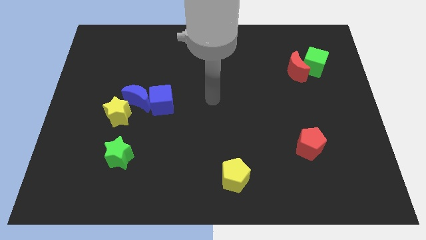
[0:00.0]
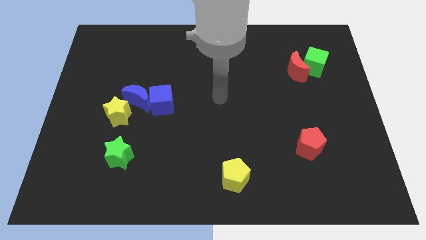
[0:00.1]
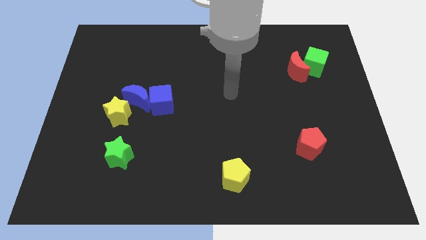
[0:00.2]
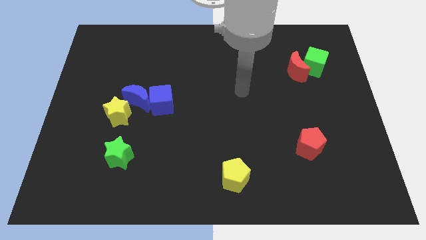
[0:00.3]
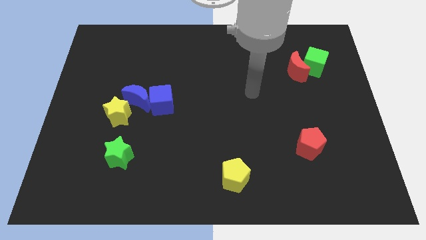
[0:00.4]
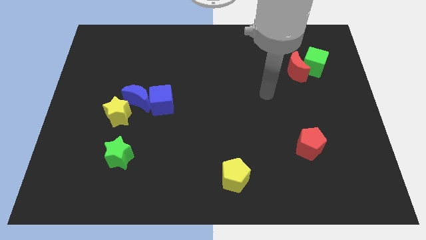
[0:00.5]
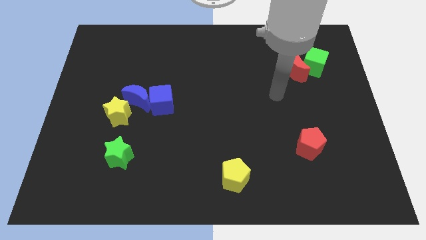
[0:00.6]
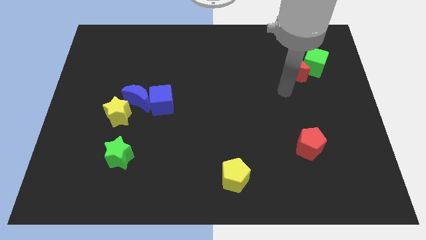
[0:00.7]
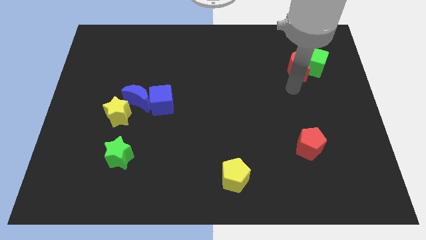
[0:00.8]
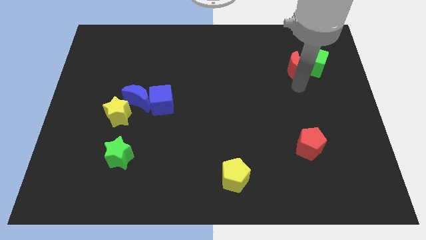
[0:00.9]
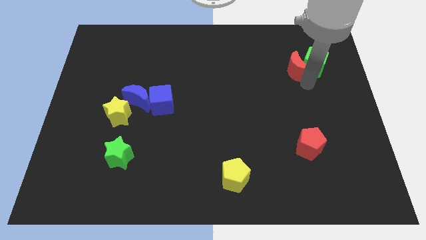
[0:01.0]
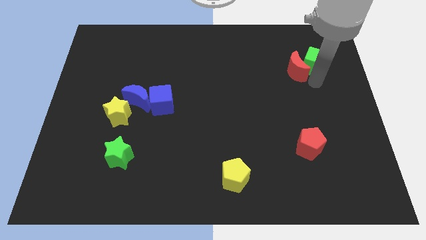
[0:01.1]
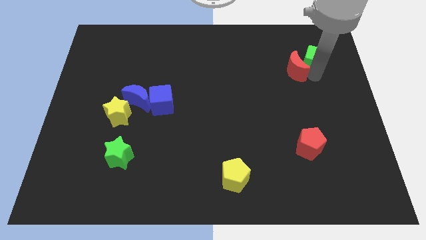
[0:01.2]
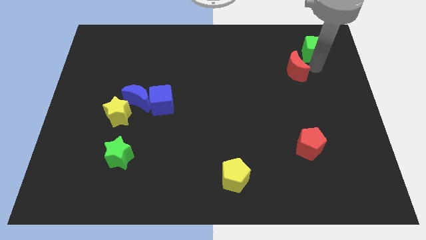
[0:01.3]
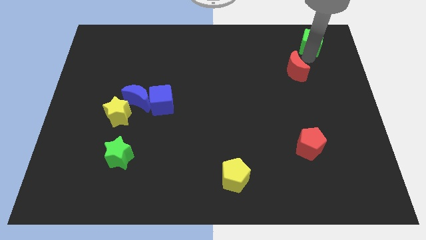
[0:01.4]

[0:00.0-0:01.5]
move the red moon away from the green cube

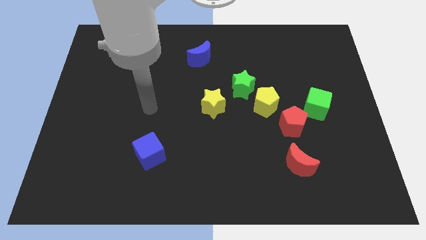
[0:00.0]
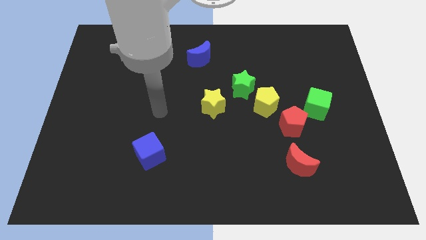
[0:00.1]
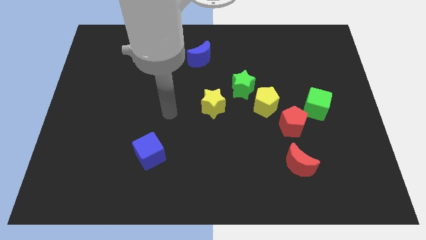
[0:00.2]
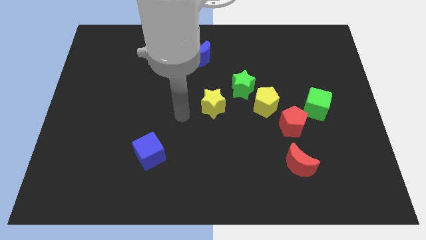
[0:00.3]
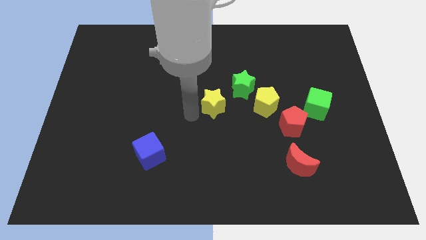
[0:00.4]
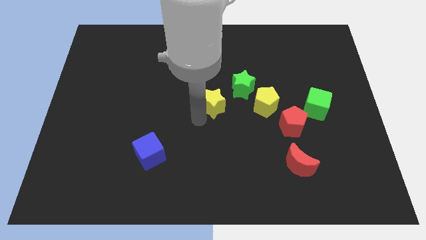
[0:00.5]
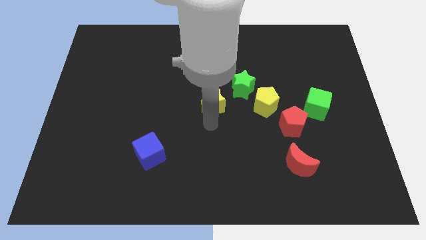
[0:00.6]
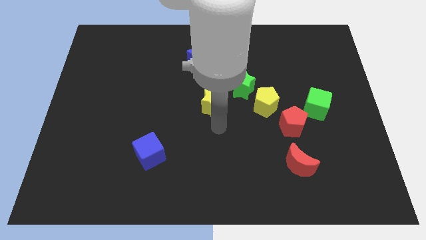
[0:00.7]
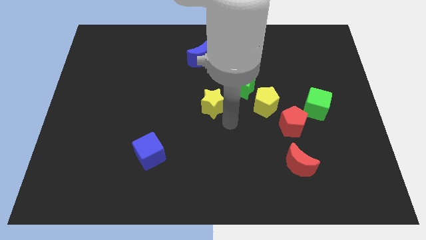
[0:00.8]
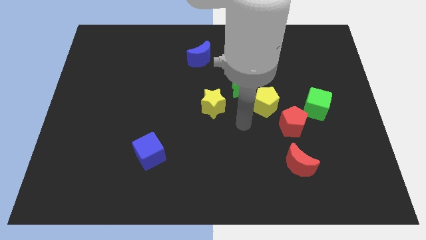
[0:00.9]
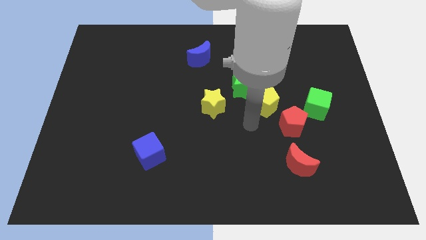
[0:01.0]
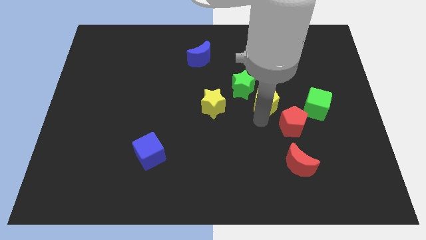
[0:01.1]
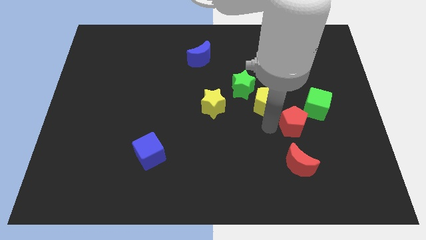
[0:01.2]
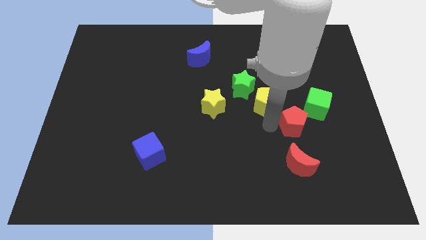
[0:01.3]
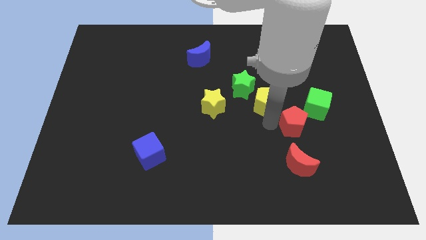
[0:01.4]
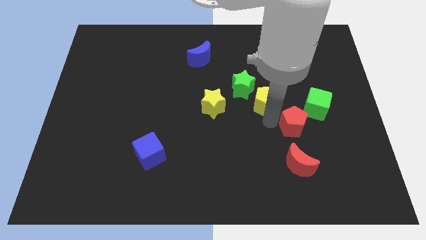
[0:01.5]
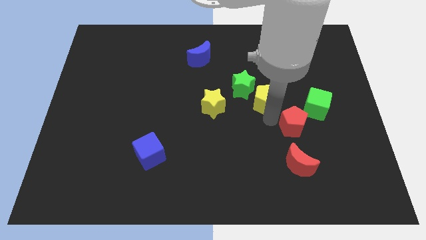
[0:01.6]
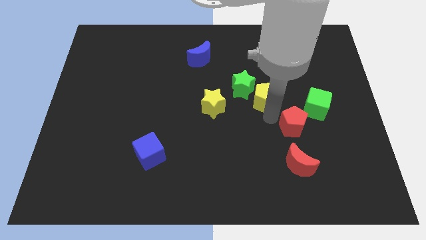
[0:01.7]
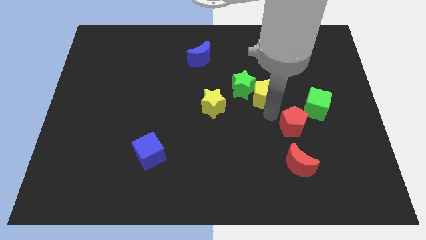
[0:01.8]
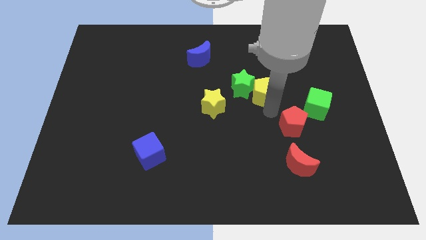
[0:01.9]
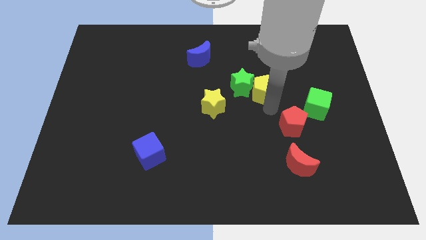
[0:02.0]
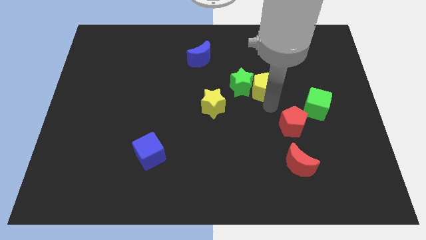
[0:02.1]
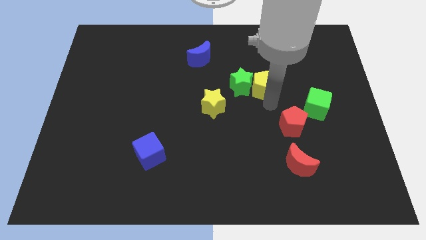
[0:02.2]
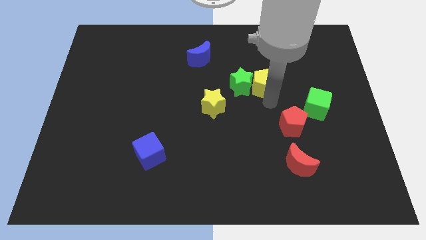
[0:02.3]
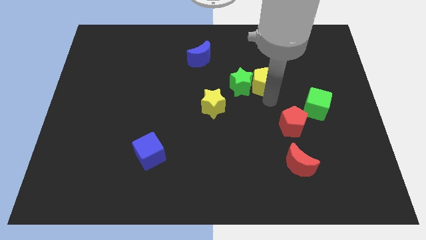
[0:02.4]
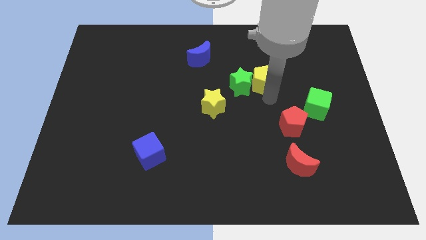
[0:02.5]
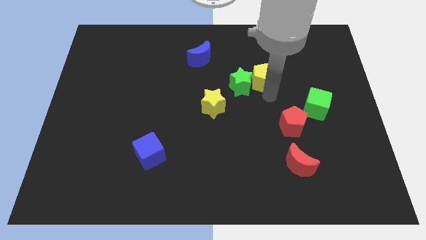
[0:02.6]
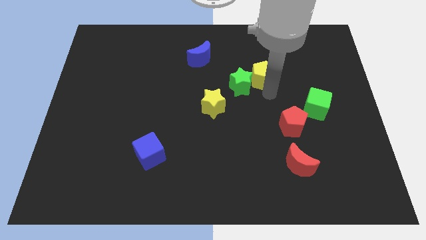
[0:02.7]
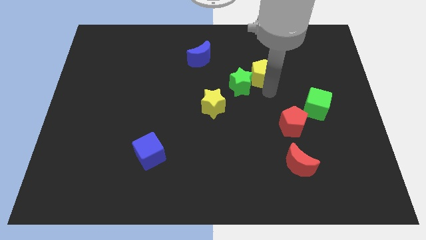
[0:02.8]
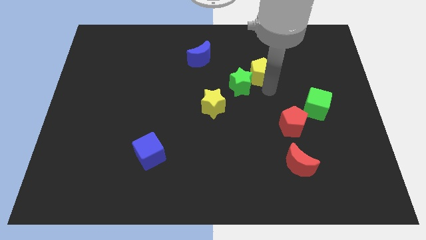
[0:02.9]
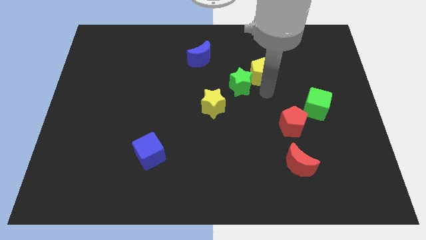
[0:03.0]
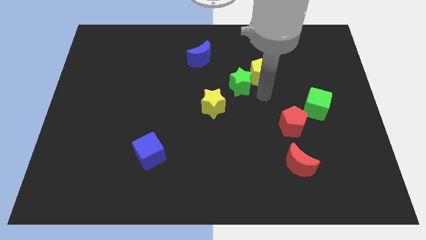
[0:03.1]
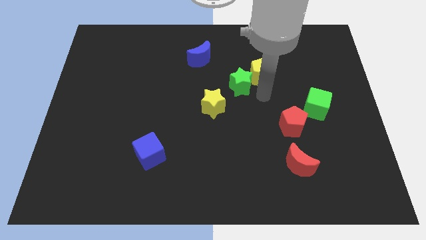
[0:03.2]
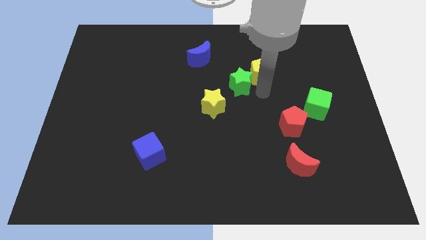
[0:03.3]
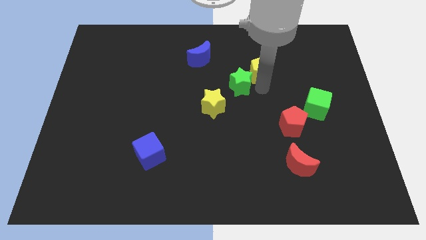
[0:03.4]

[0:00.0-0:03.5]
move the yellow pentagon away from the green star and red pentagon

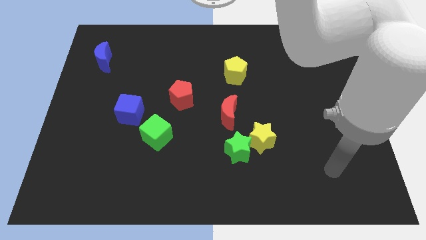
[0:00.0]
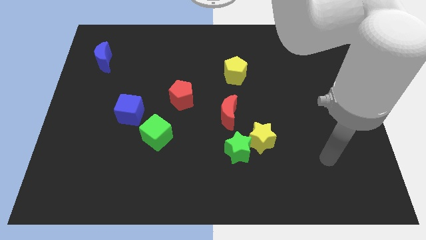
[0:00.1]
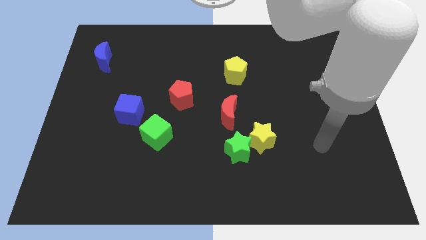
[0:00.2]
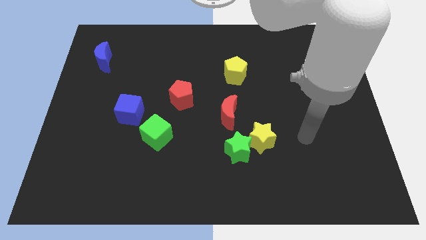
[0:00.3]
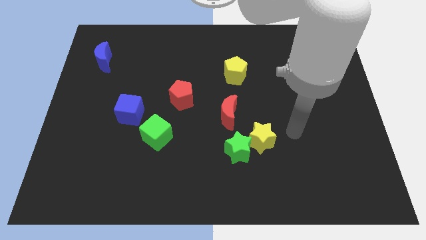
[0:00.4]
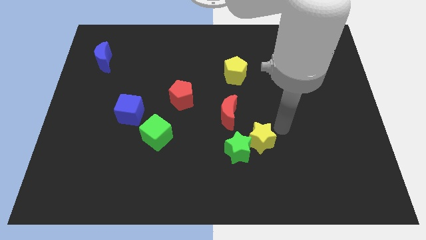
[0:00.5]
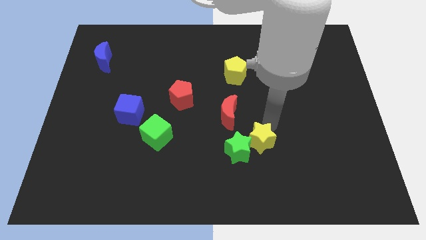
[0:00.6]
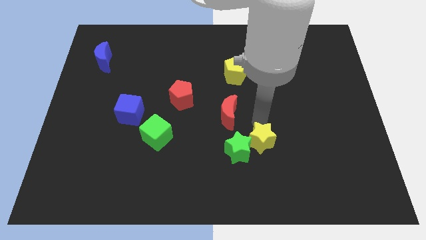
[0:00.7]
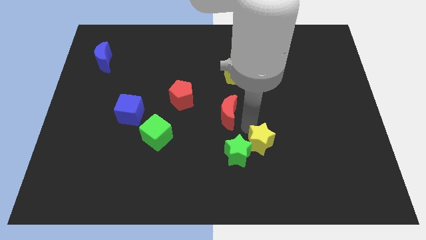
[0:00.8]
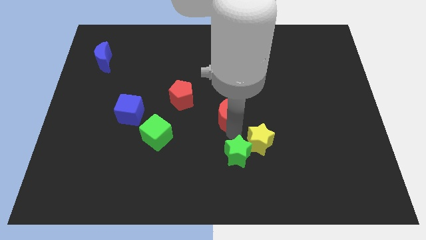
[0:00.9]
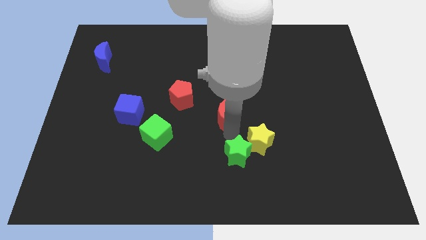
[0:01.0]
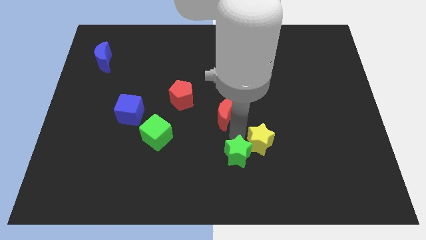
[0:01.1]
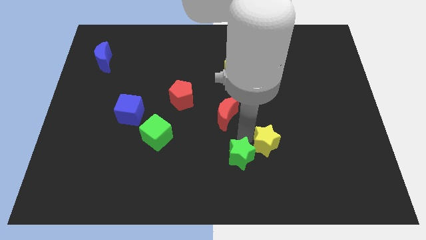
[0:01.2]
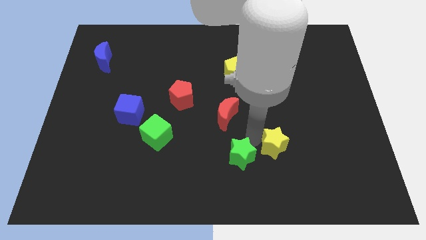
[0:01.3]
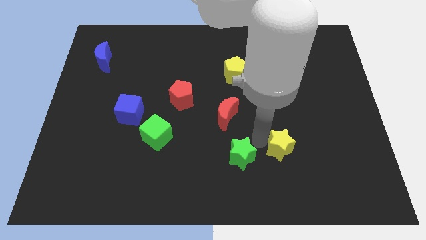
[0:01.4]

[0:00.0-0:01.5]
pull the yellow star apart from the green star and red moon

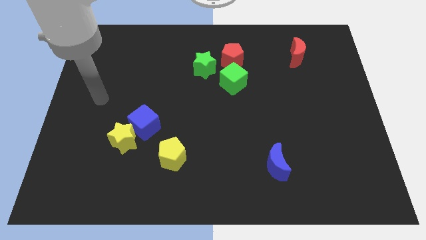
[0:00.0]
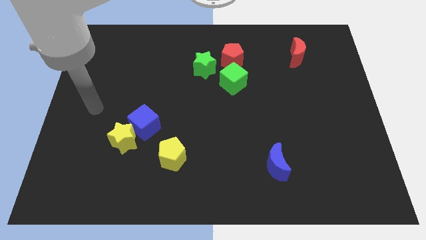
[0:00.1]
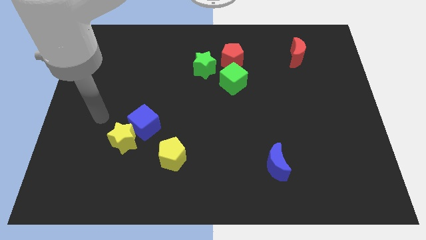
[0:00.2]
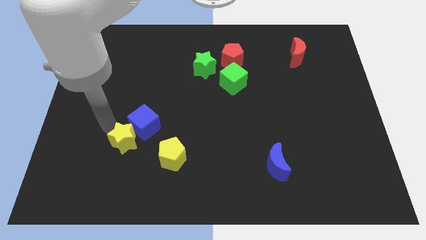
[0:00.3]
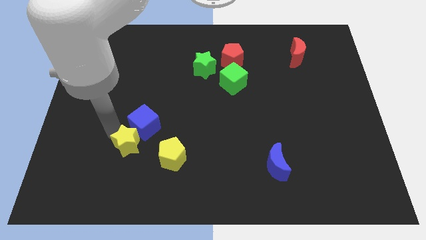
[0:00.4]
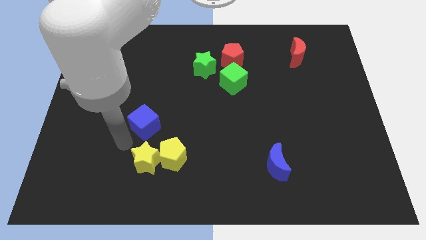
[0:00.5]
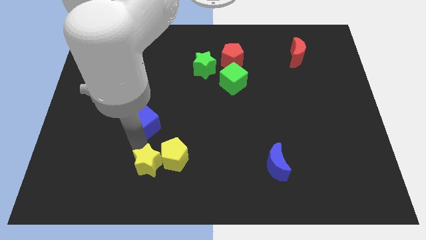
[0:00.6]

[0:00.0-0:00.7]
separate the blue cube from the yellow star

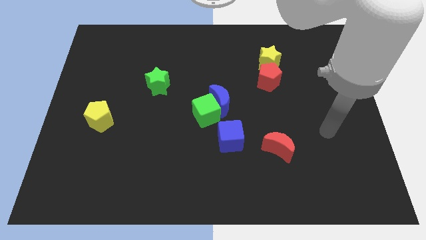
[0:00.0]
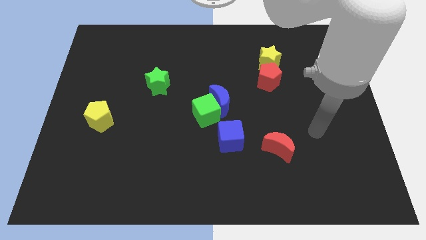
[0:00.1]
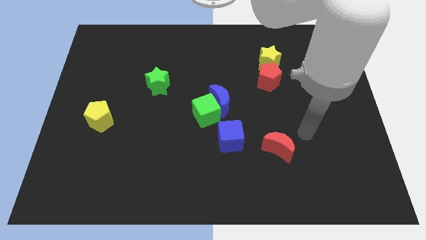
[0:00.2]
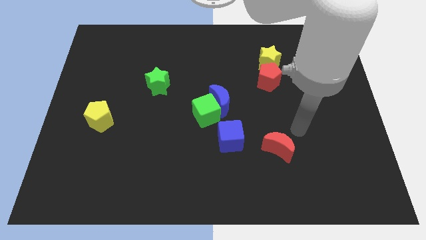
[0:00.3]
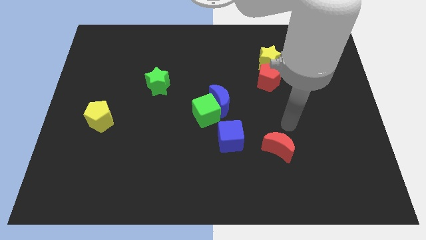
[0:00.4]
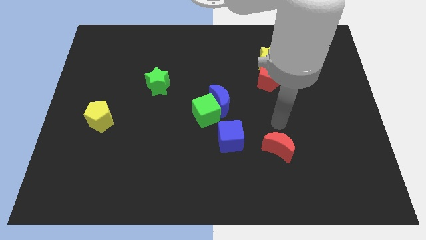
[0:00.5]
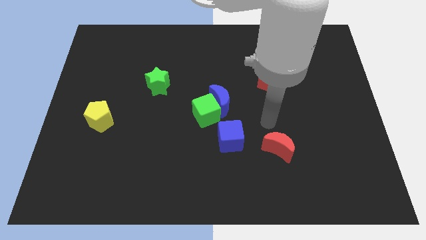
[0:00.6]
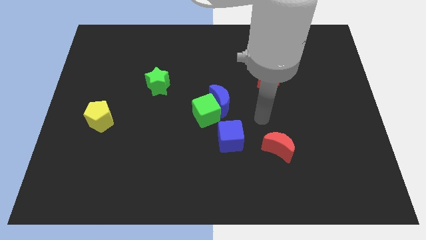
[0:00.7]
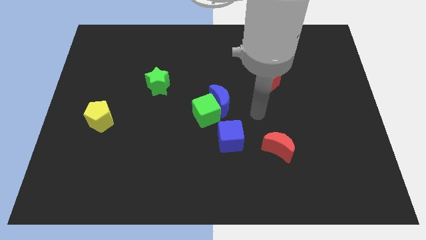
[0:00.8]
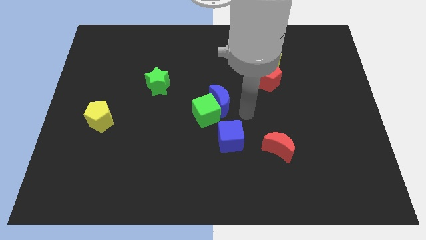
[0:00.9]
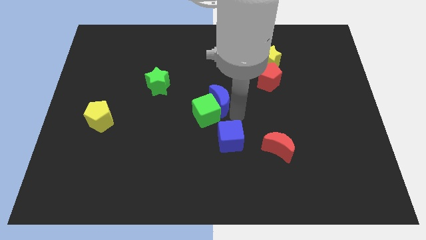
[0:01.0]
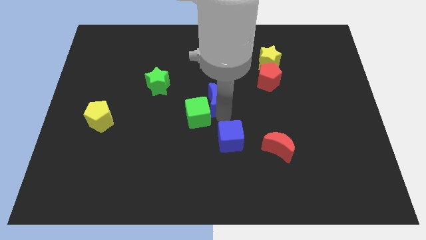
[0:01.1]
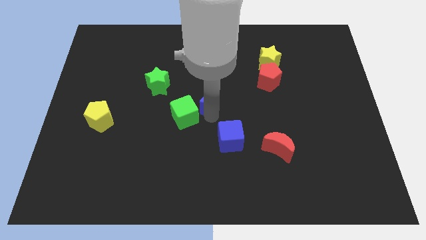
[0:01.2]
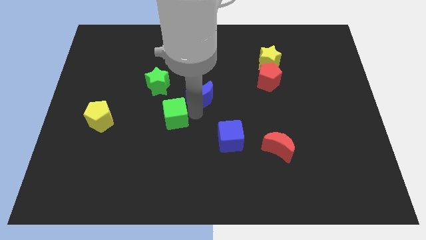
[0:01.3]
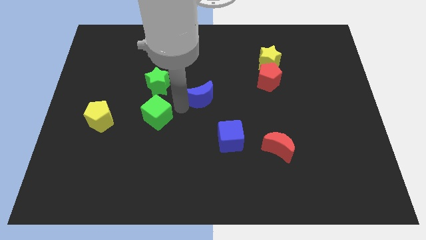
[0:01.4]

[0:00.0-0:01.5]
move the blue moon away from the green cube

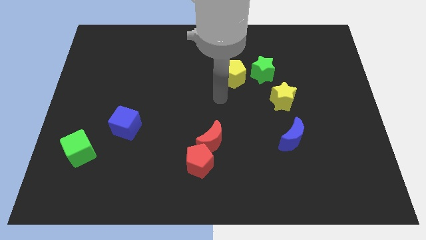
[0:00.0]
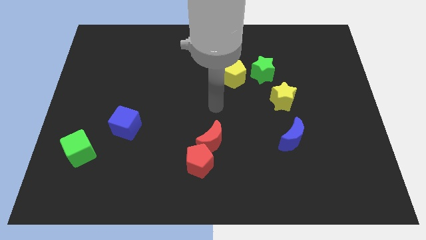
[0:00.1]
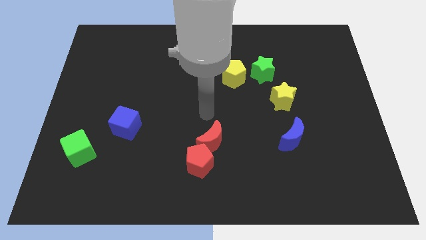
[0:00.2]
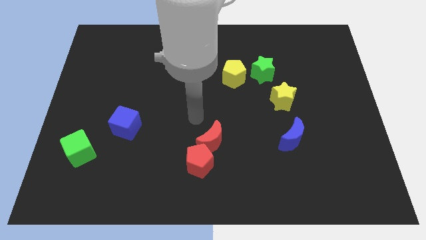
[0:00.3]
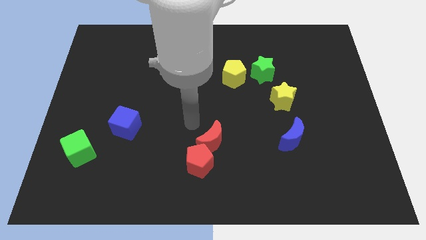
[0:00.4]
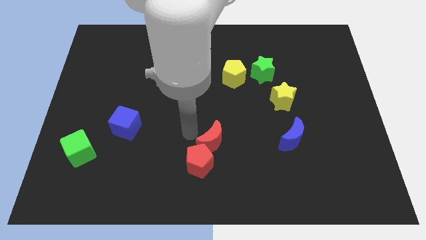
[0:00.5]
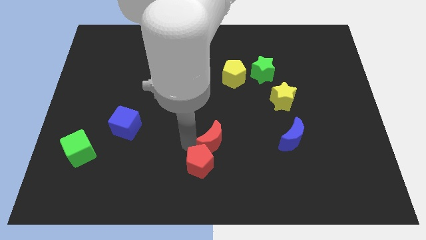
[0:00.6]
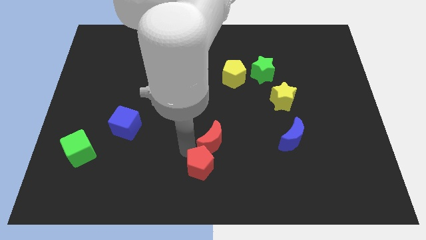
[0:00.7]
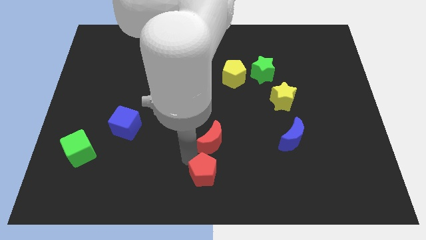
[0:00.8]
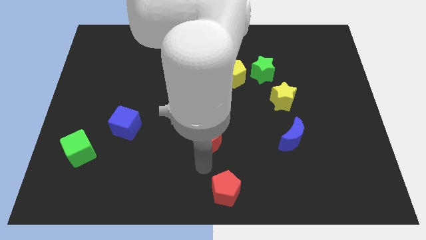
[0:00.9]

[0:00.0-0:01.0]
separate the red moon from the red pentagon
